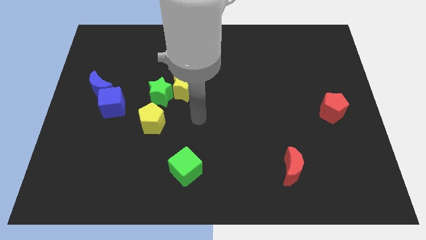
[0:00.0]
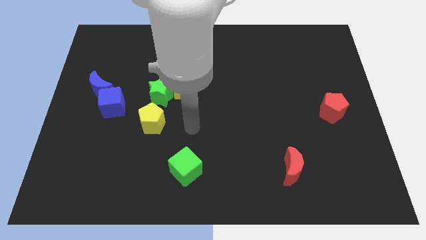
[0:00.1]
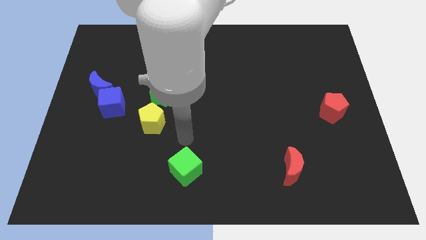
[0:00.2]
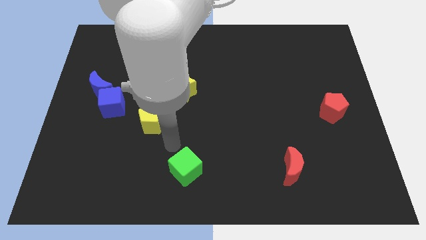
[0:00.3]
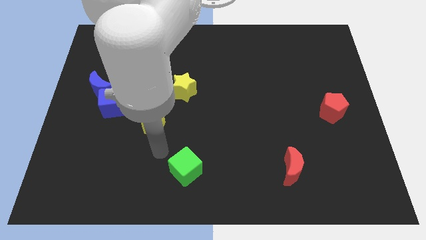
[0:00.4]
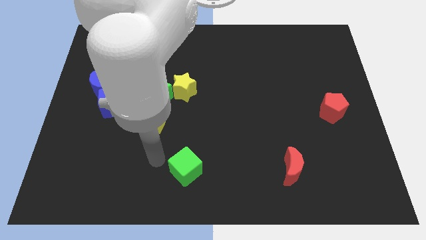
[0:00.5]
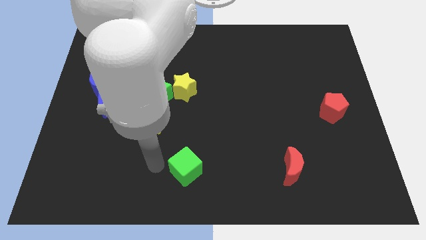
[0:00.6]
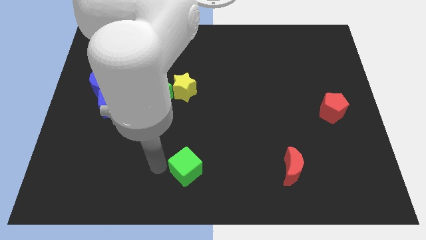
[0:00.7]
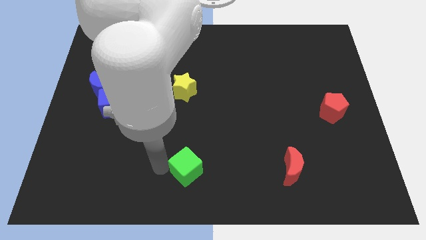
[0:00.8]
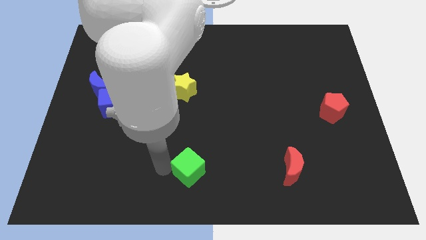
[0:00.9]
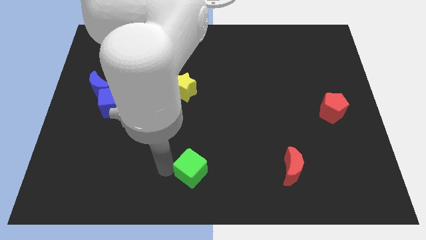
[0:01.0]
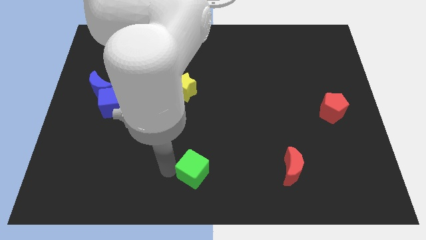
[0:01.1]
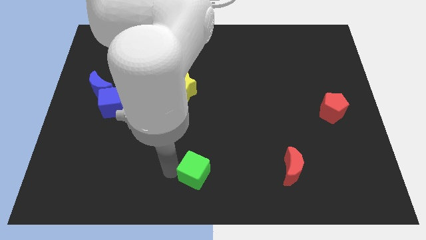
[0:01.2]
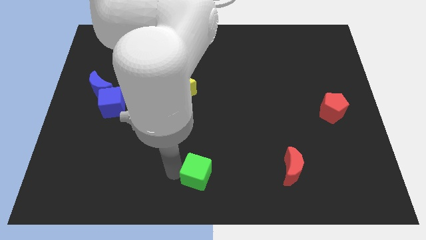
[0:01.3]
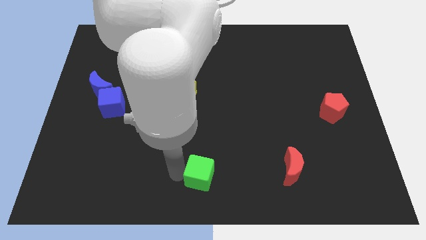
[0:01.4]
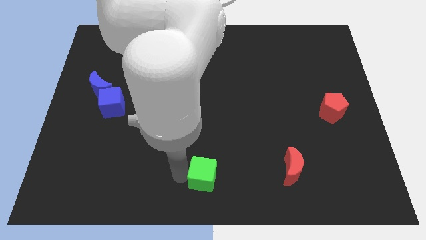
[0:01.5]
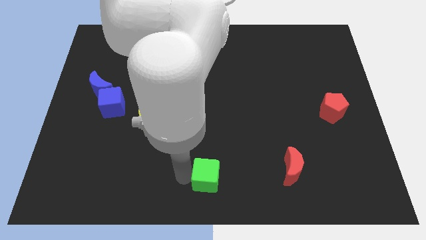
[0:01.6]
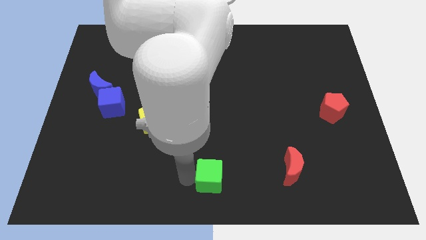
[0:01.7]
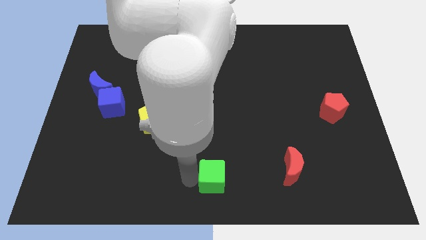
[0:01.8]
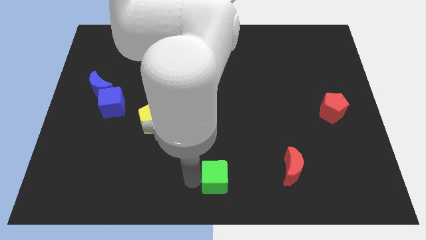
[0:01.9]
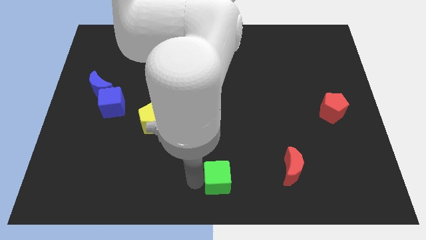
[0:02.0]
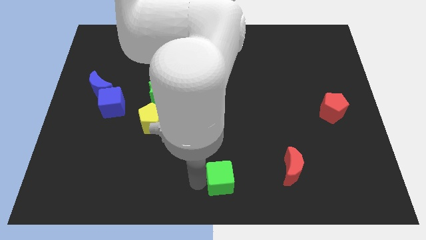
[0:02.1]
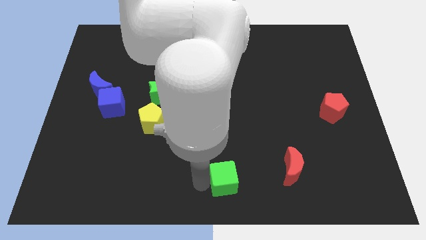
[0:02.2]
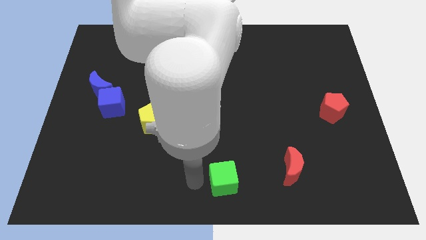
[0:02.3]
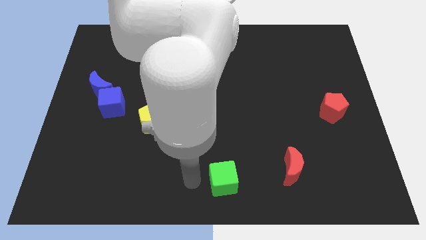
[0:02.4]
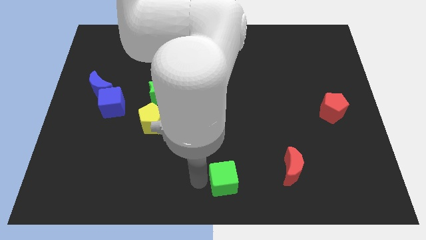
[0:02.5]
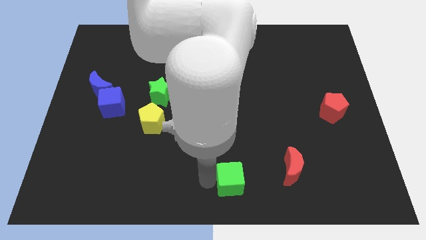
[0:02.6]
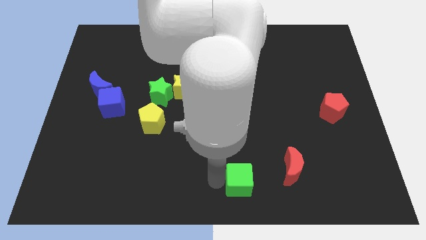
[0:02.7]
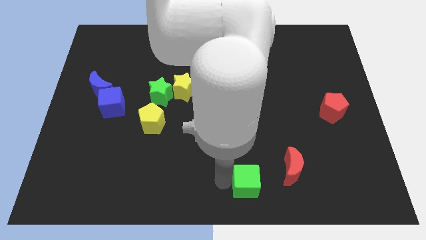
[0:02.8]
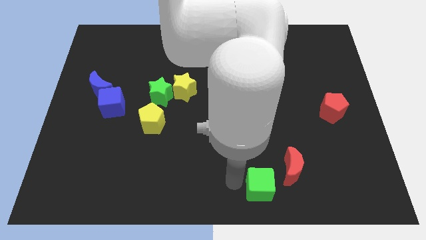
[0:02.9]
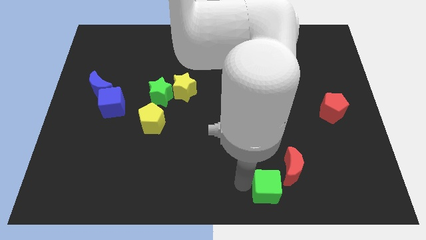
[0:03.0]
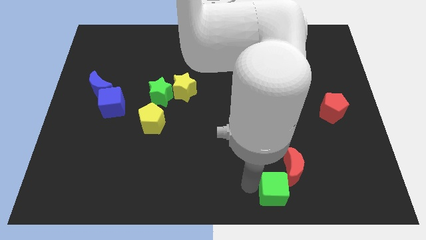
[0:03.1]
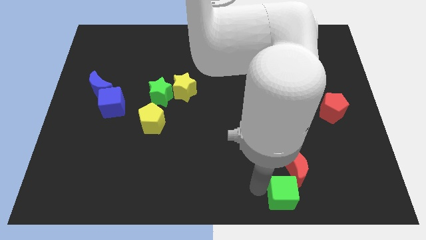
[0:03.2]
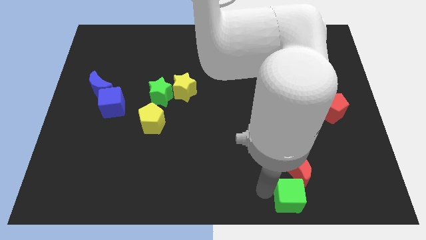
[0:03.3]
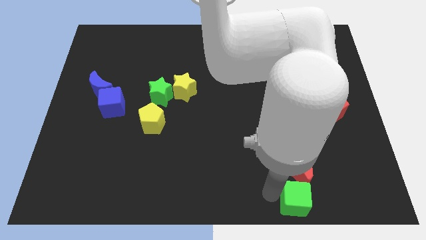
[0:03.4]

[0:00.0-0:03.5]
push the green cube to the right

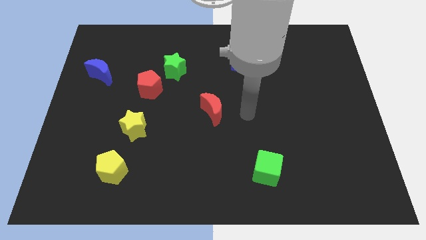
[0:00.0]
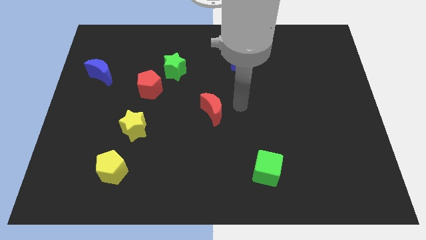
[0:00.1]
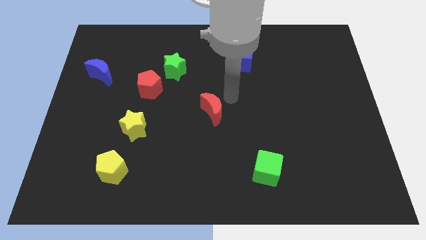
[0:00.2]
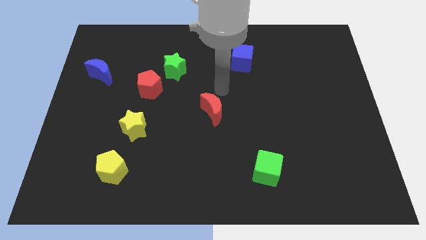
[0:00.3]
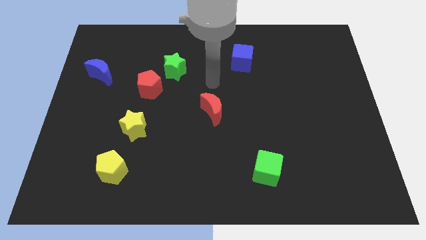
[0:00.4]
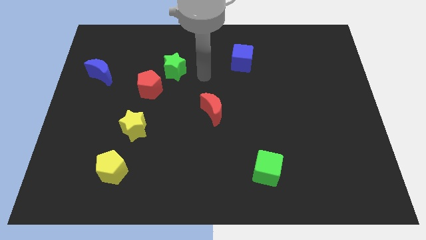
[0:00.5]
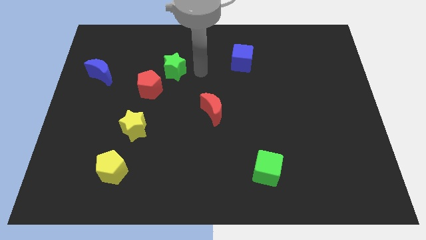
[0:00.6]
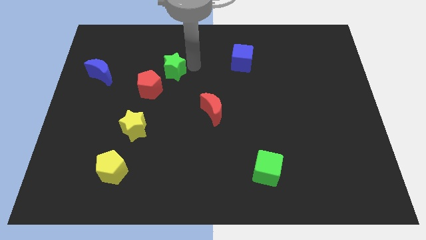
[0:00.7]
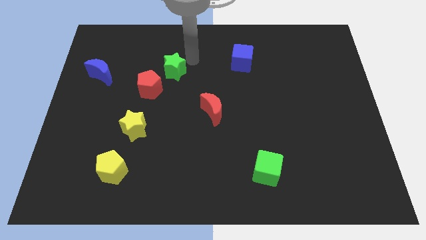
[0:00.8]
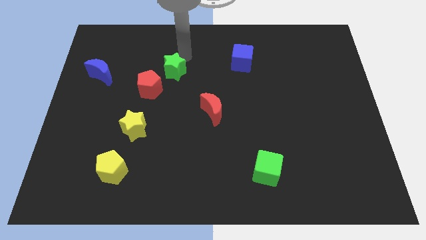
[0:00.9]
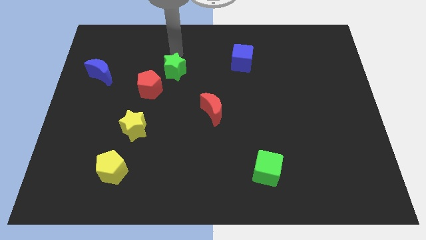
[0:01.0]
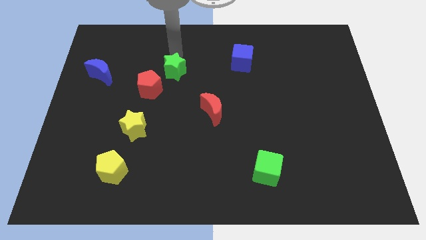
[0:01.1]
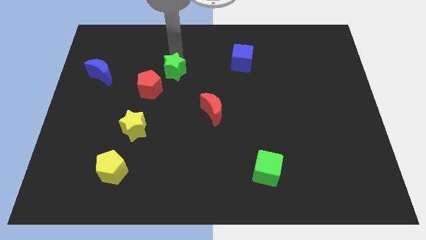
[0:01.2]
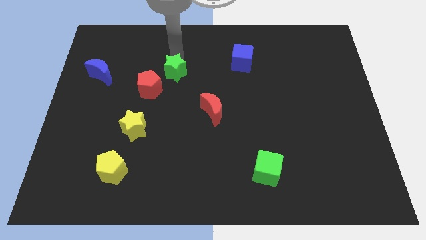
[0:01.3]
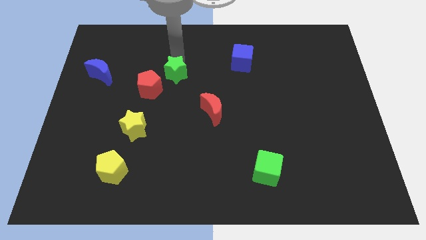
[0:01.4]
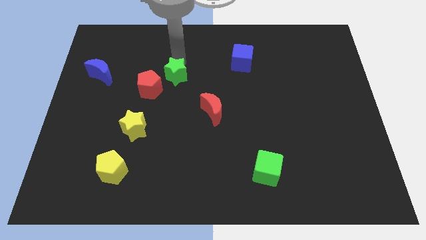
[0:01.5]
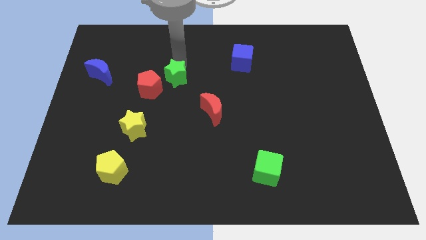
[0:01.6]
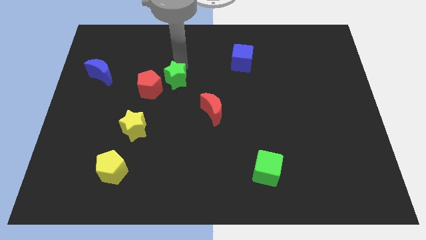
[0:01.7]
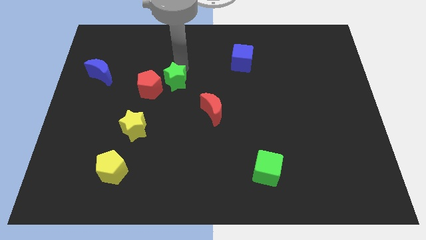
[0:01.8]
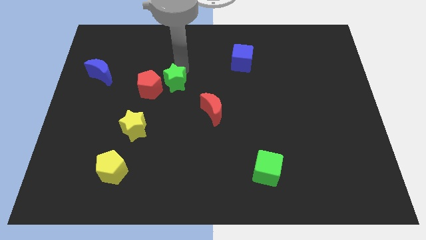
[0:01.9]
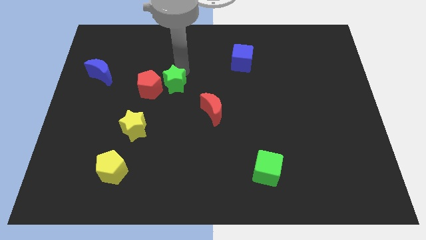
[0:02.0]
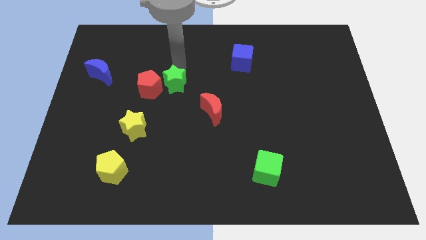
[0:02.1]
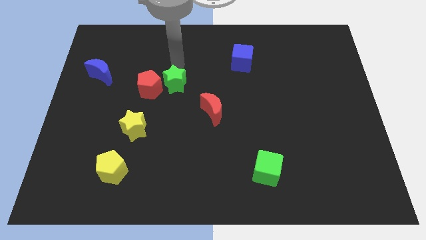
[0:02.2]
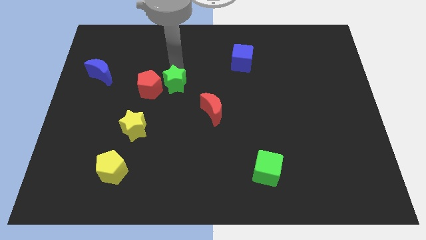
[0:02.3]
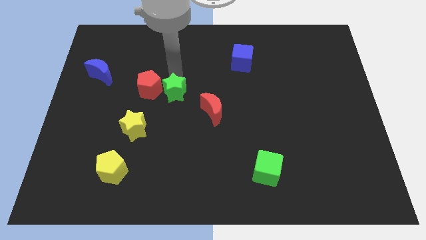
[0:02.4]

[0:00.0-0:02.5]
move the green star slightly downwards

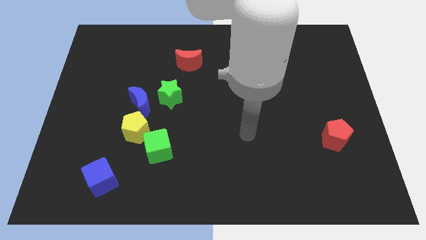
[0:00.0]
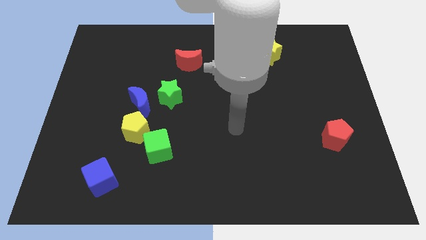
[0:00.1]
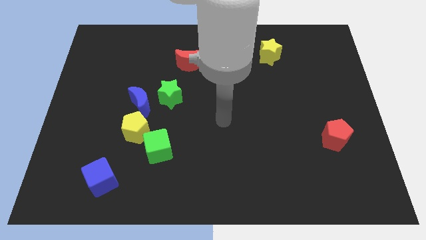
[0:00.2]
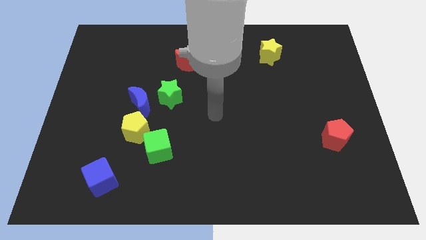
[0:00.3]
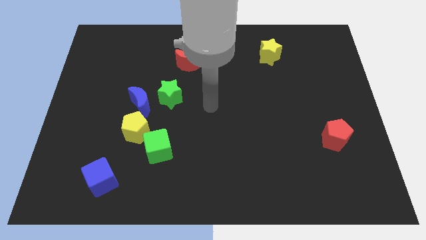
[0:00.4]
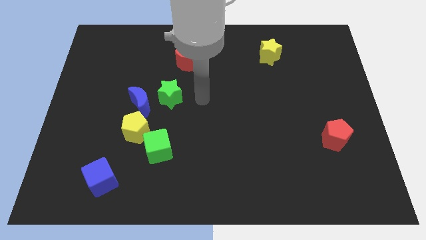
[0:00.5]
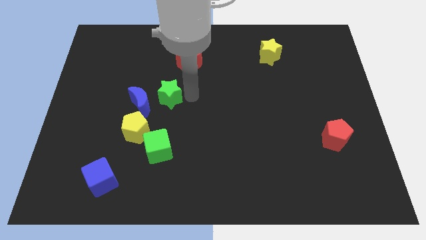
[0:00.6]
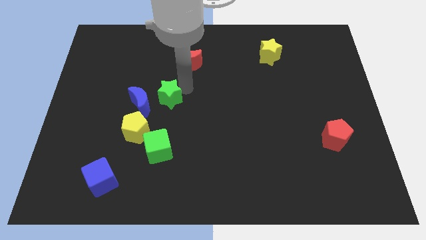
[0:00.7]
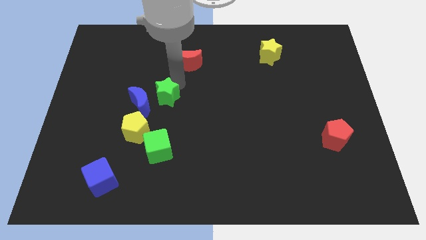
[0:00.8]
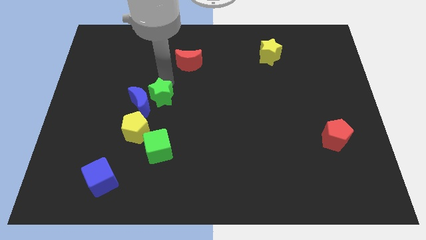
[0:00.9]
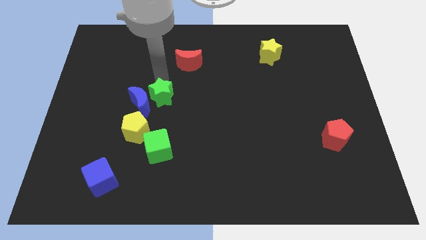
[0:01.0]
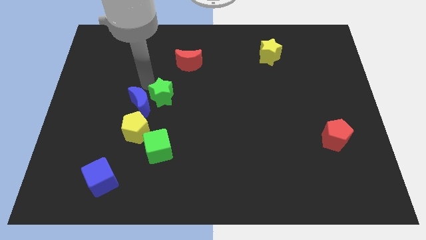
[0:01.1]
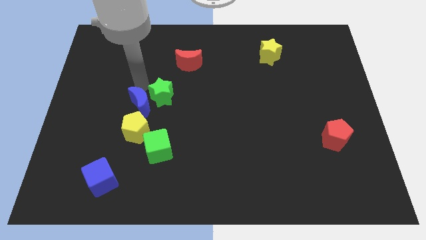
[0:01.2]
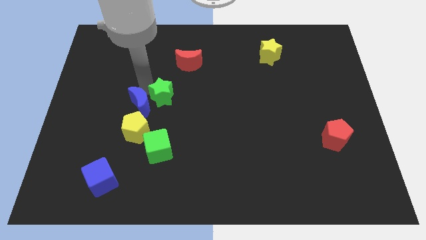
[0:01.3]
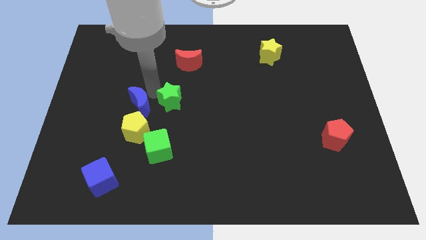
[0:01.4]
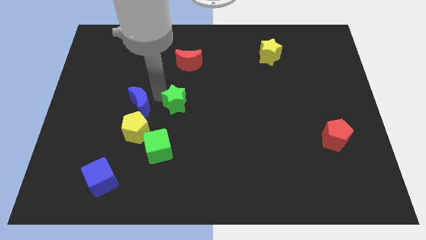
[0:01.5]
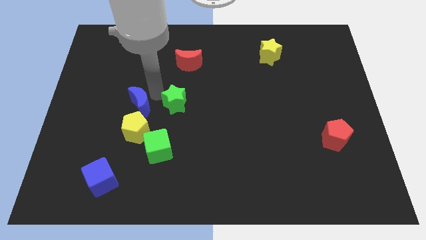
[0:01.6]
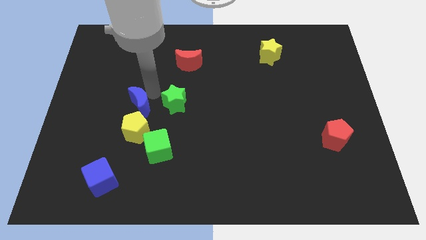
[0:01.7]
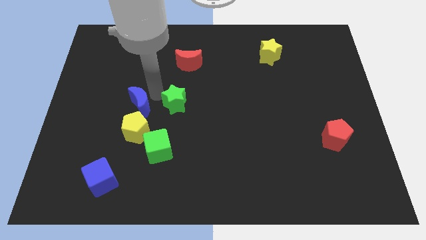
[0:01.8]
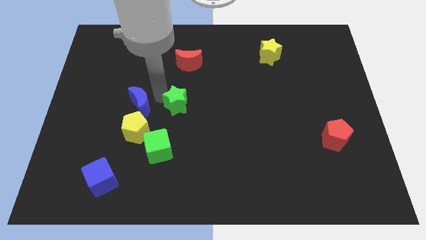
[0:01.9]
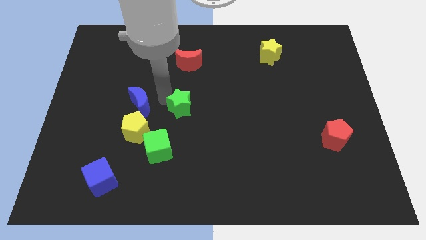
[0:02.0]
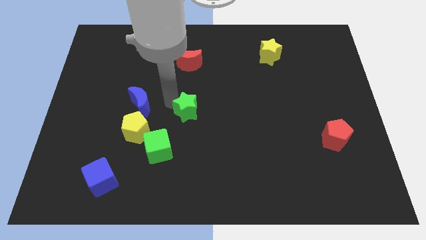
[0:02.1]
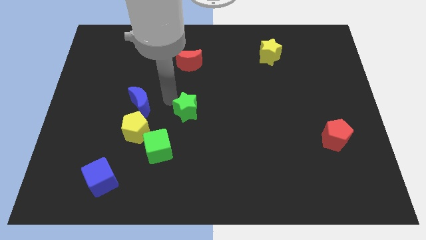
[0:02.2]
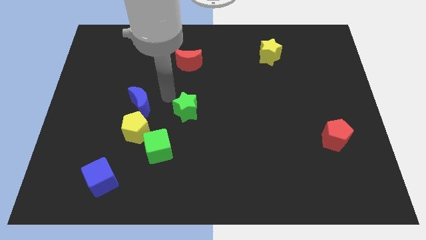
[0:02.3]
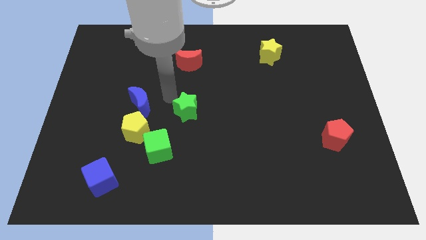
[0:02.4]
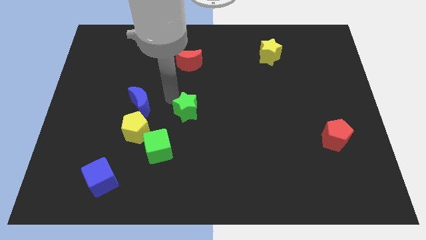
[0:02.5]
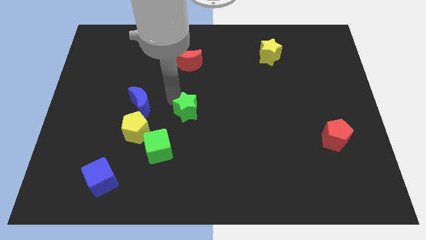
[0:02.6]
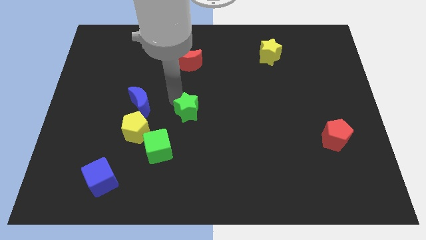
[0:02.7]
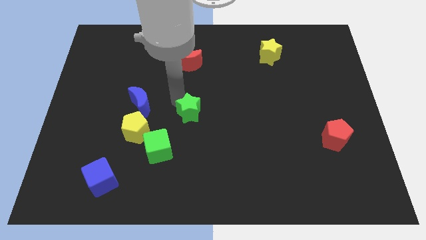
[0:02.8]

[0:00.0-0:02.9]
move the green star down and to the right a little
